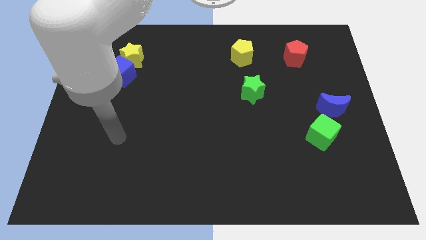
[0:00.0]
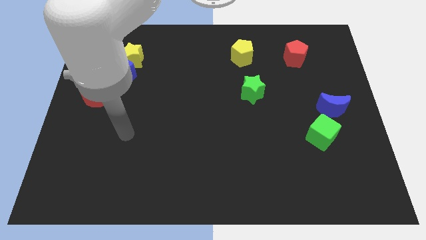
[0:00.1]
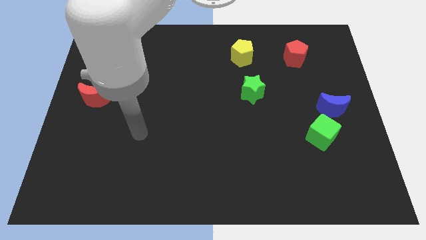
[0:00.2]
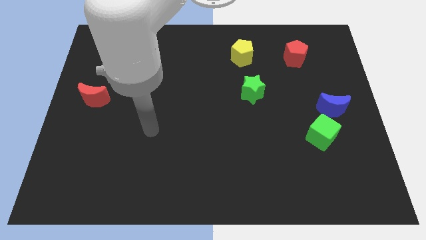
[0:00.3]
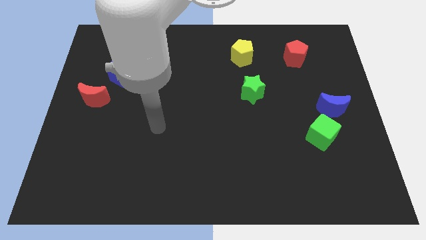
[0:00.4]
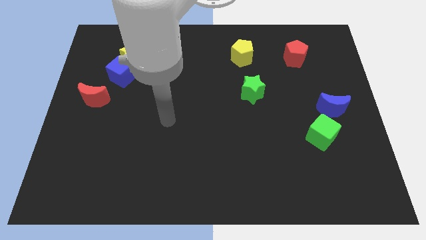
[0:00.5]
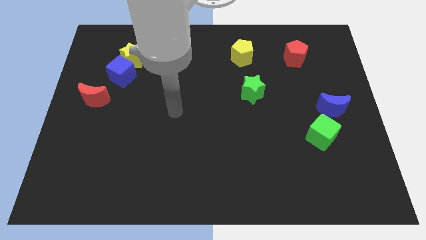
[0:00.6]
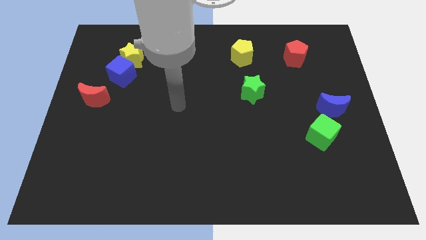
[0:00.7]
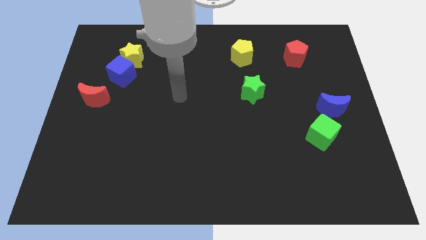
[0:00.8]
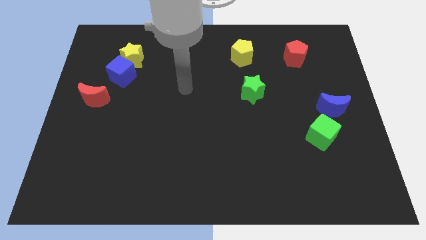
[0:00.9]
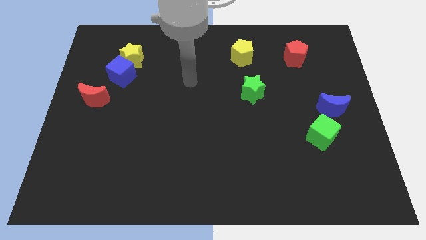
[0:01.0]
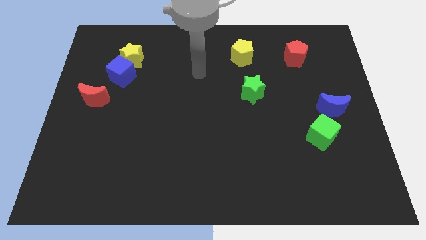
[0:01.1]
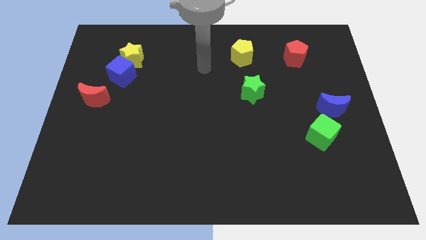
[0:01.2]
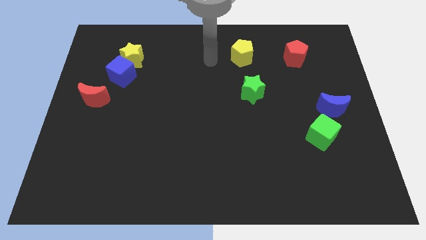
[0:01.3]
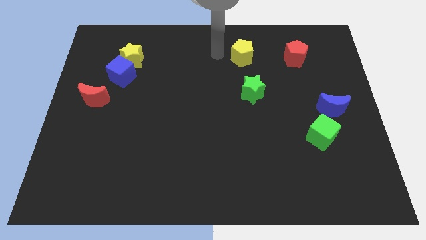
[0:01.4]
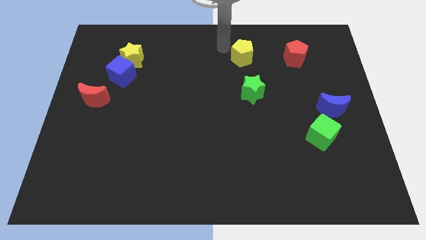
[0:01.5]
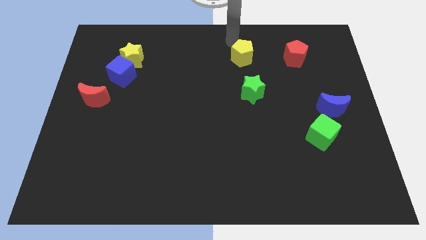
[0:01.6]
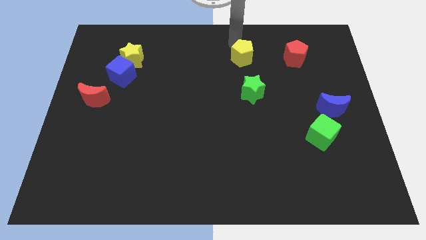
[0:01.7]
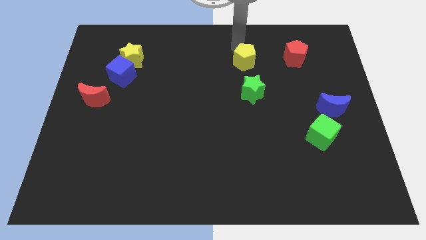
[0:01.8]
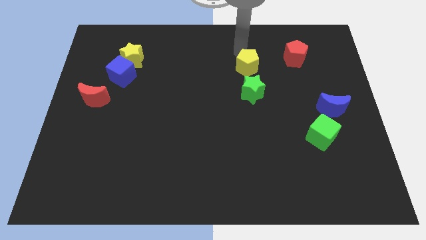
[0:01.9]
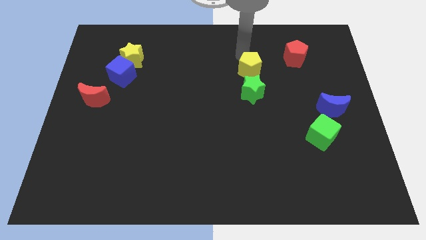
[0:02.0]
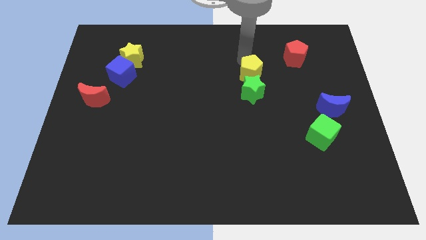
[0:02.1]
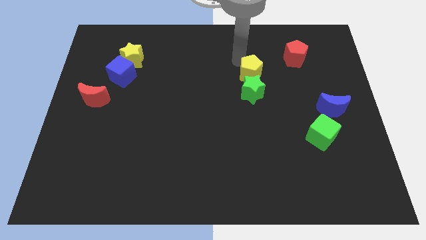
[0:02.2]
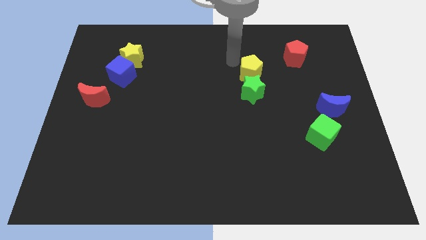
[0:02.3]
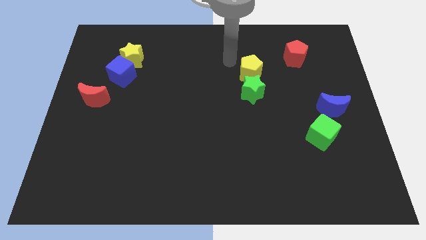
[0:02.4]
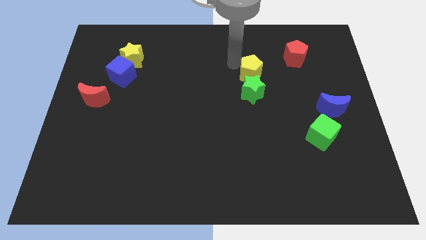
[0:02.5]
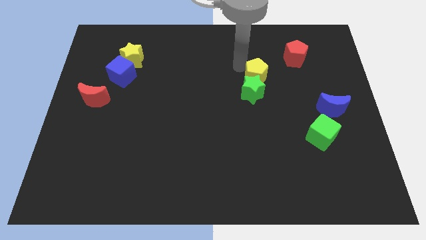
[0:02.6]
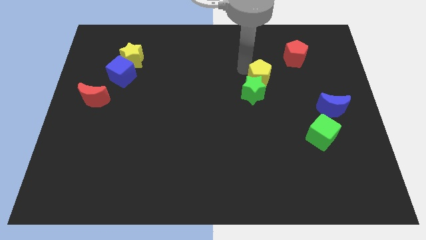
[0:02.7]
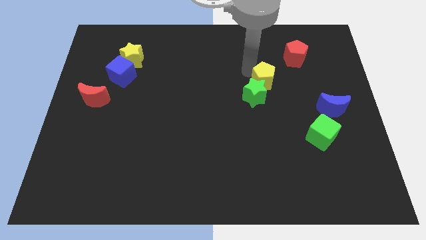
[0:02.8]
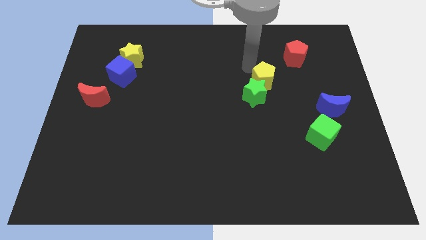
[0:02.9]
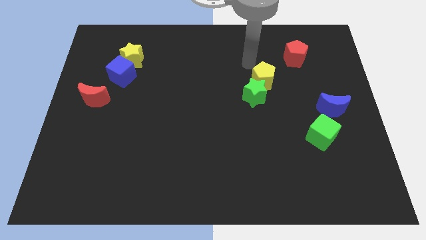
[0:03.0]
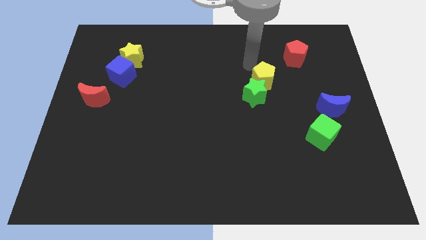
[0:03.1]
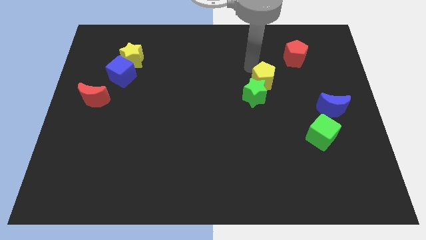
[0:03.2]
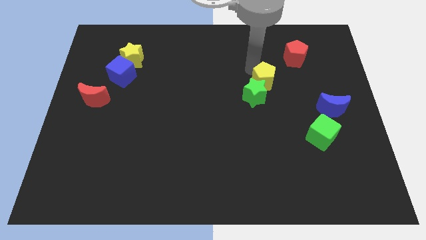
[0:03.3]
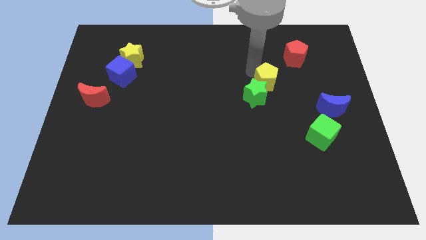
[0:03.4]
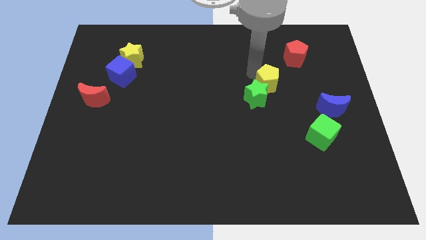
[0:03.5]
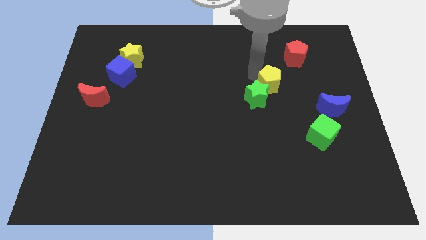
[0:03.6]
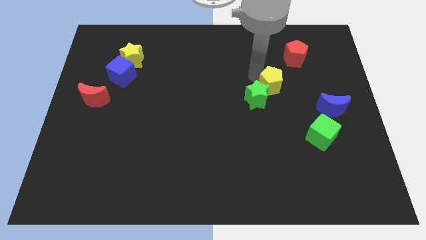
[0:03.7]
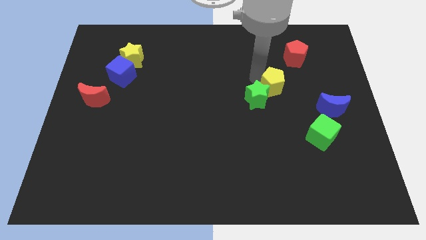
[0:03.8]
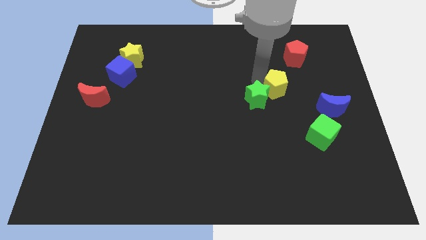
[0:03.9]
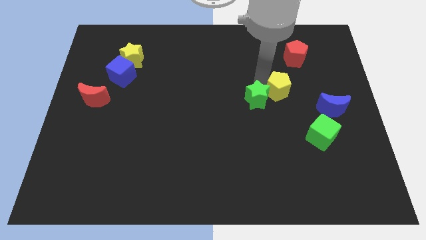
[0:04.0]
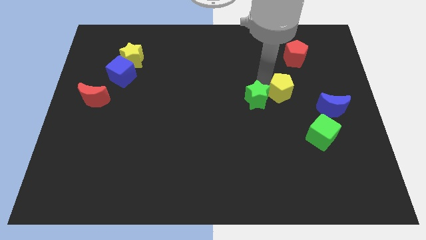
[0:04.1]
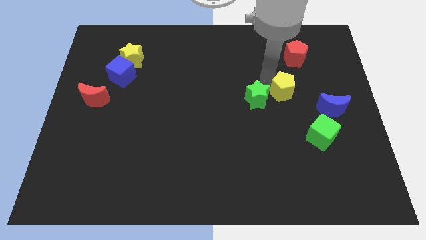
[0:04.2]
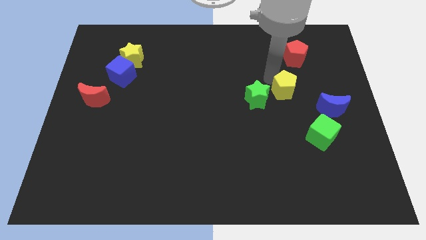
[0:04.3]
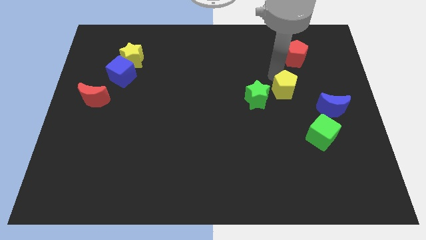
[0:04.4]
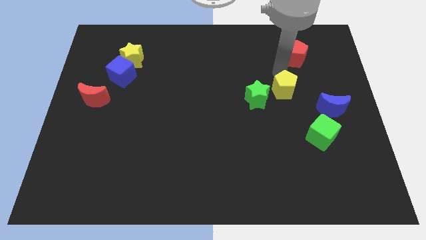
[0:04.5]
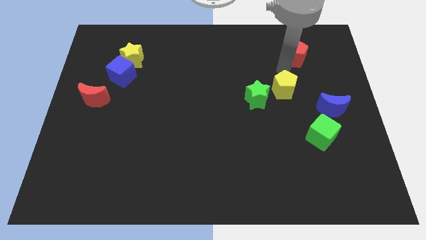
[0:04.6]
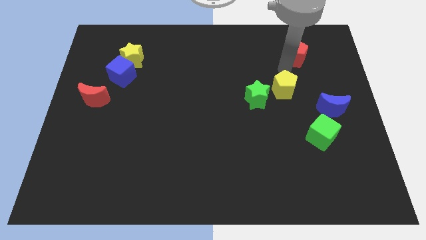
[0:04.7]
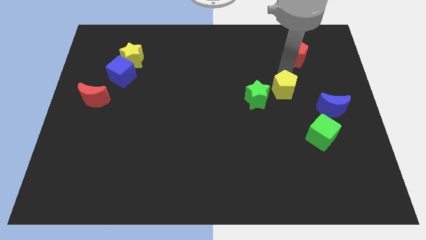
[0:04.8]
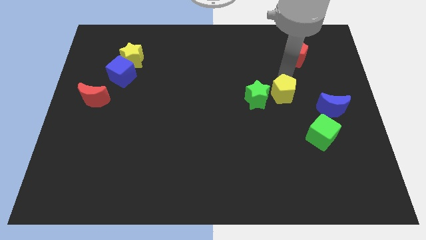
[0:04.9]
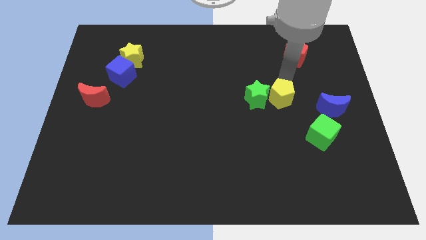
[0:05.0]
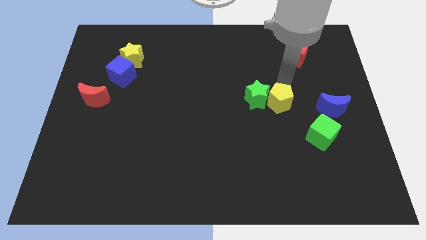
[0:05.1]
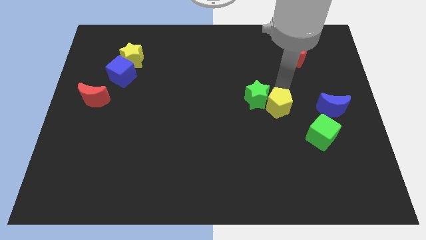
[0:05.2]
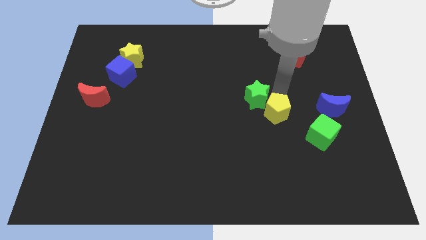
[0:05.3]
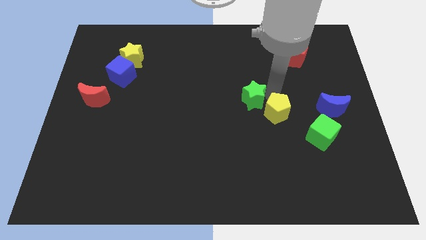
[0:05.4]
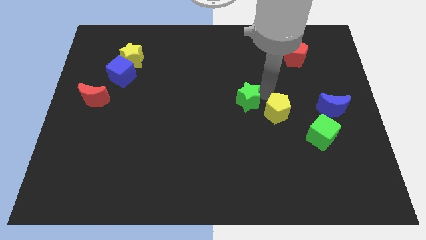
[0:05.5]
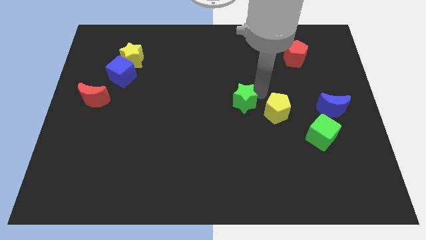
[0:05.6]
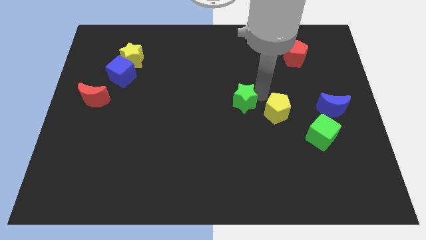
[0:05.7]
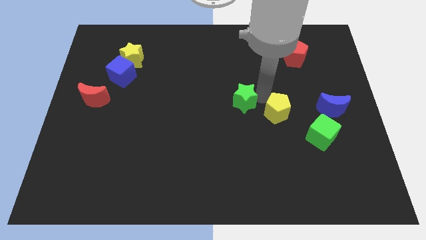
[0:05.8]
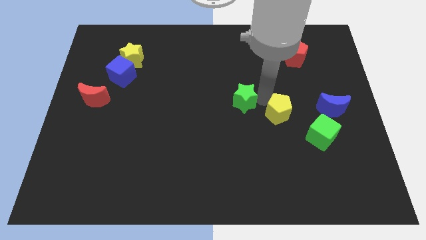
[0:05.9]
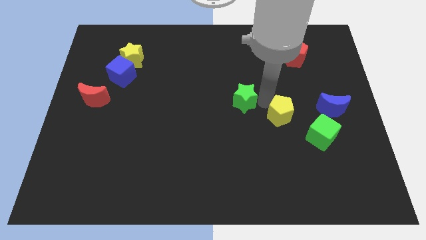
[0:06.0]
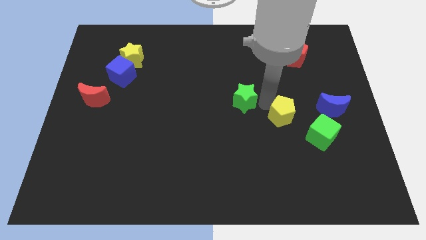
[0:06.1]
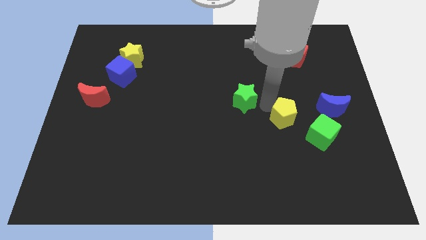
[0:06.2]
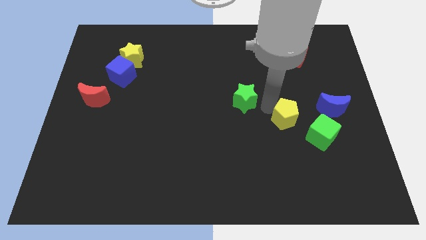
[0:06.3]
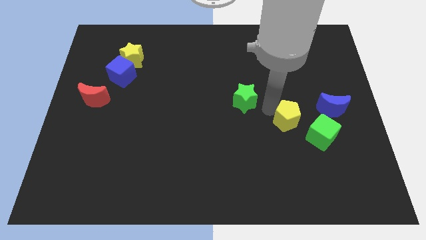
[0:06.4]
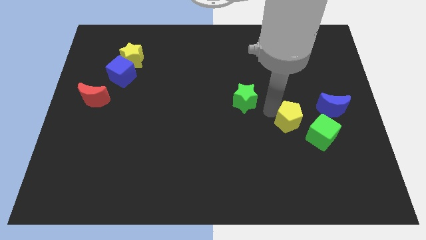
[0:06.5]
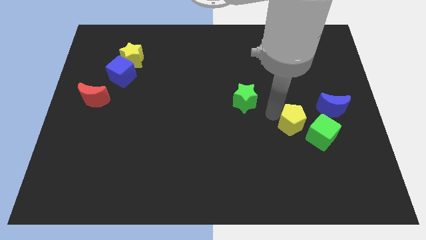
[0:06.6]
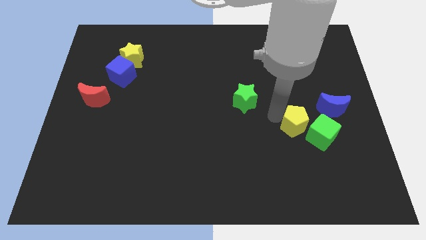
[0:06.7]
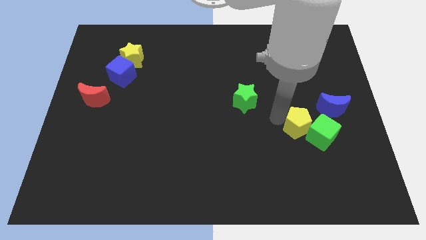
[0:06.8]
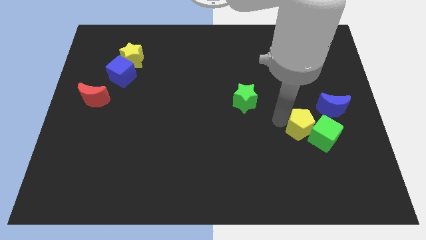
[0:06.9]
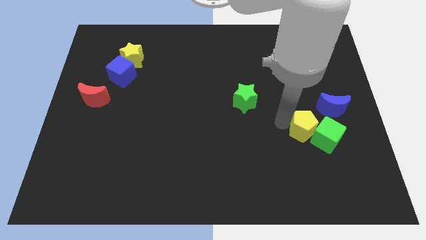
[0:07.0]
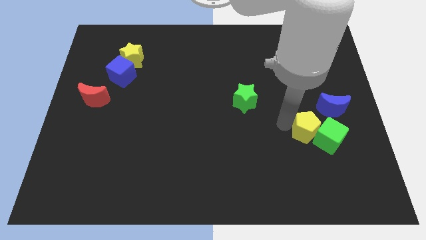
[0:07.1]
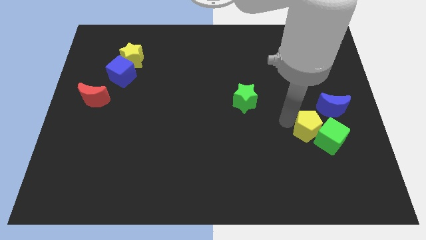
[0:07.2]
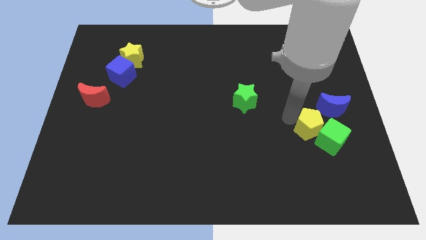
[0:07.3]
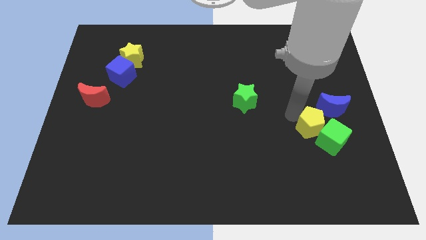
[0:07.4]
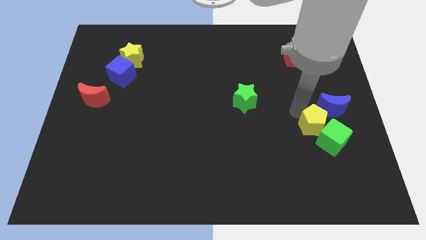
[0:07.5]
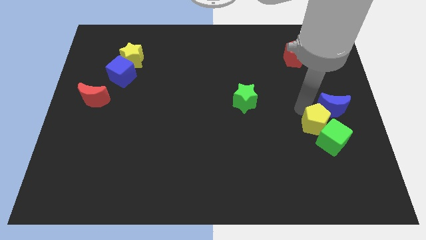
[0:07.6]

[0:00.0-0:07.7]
slide the yellow pentagon to the bottom of the blue moon
